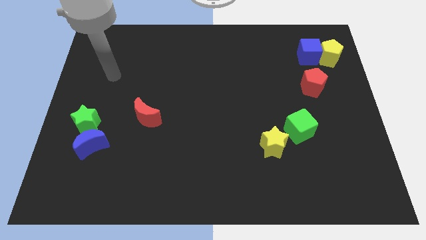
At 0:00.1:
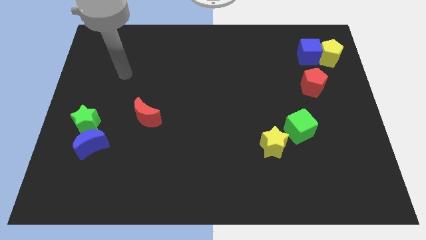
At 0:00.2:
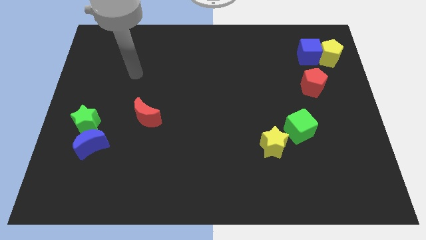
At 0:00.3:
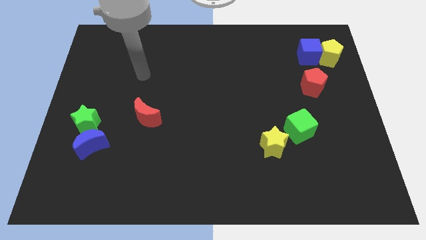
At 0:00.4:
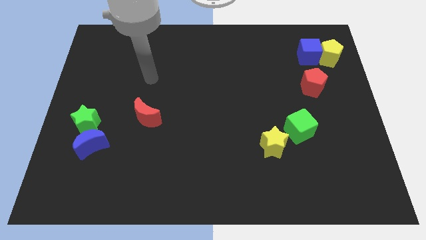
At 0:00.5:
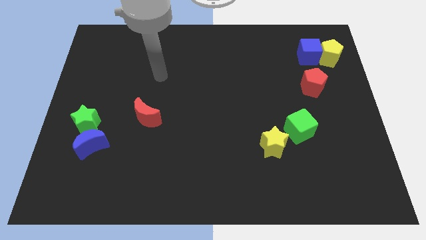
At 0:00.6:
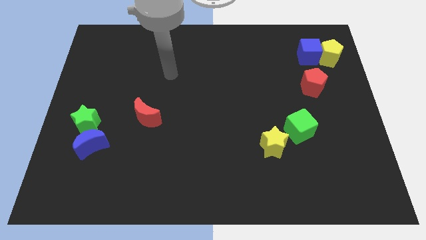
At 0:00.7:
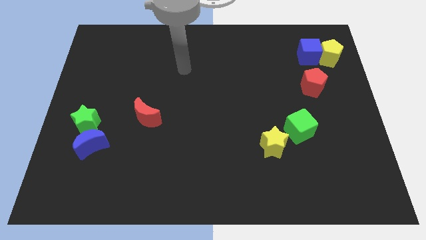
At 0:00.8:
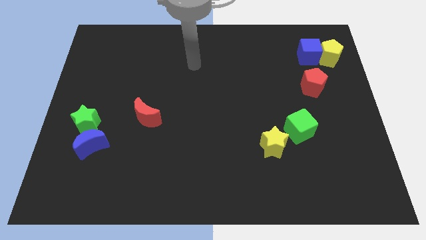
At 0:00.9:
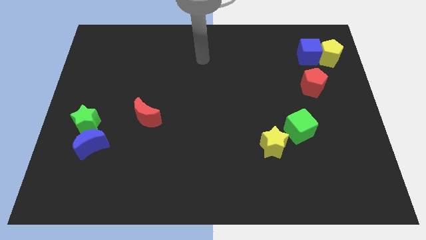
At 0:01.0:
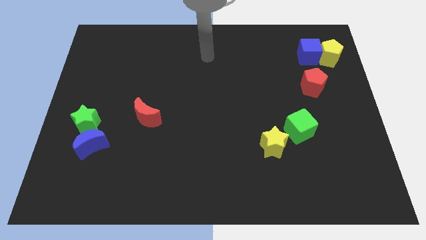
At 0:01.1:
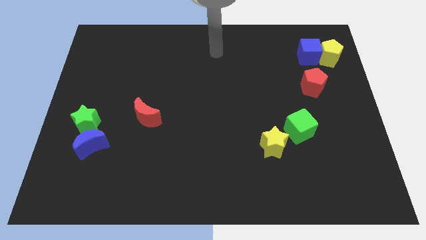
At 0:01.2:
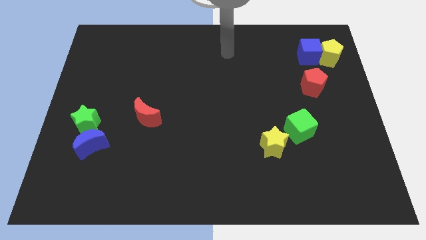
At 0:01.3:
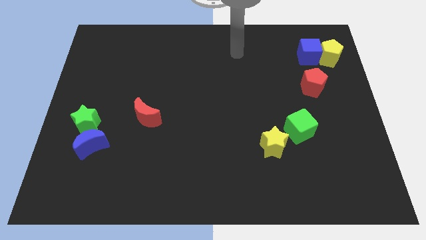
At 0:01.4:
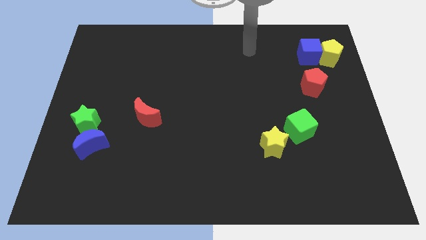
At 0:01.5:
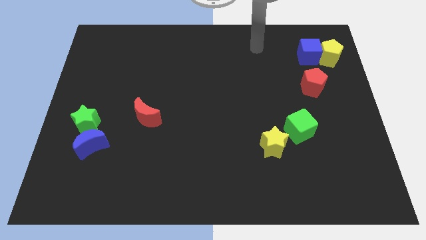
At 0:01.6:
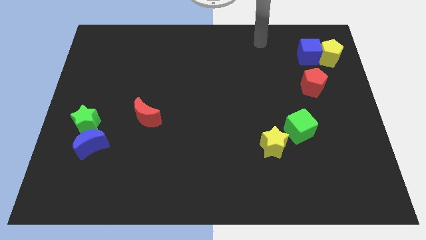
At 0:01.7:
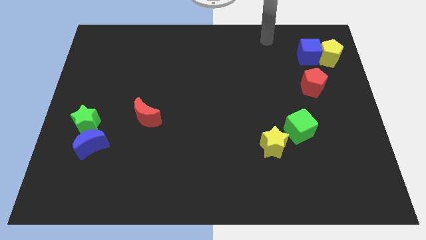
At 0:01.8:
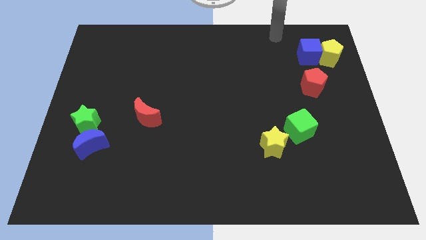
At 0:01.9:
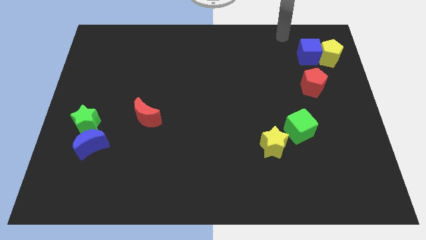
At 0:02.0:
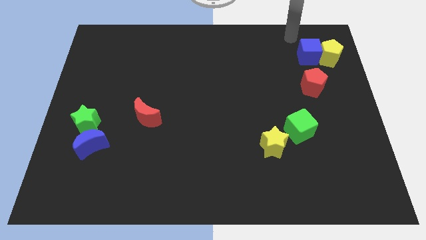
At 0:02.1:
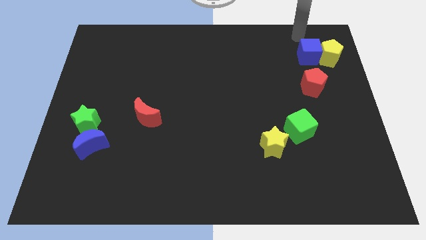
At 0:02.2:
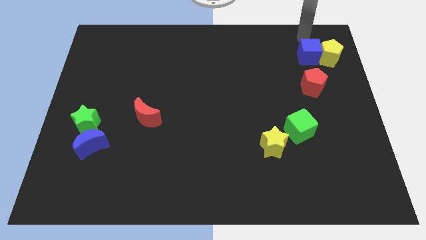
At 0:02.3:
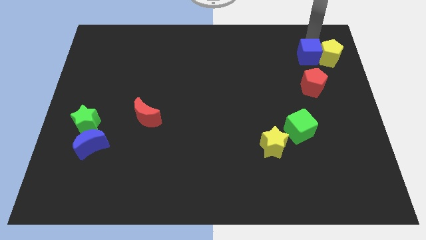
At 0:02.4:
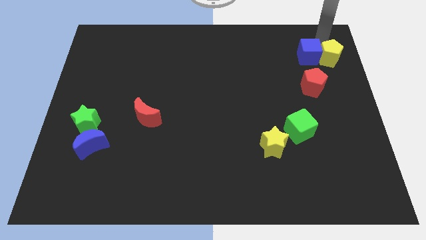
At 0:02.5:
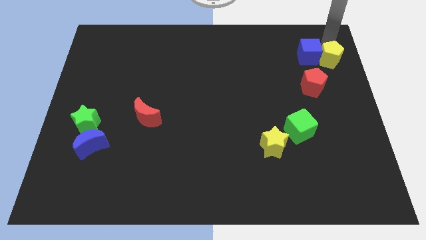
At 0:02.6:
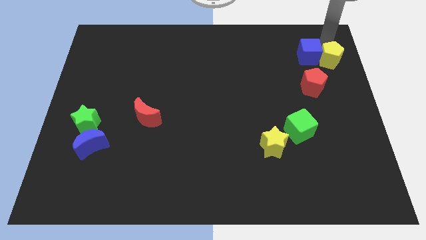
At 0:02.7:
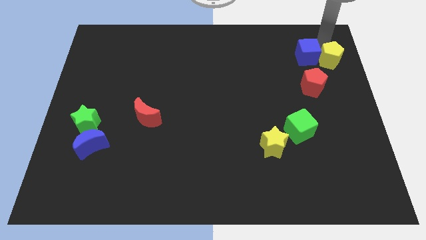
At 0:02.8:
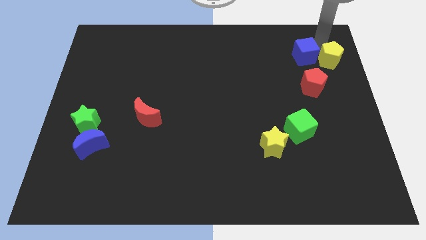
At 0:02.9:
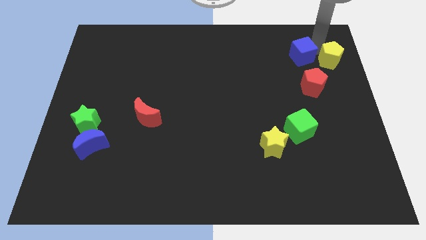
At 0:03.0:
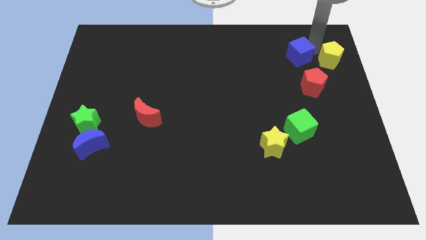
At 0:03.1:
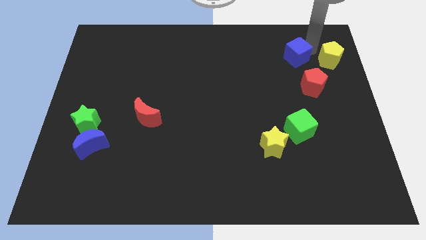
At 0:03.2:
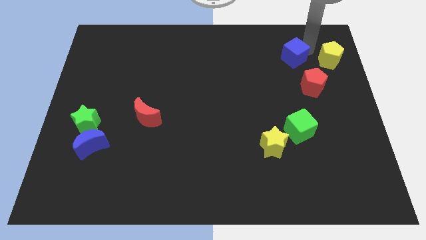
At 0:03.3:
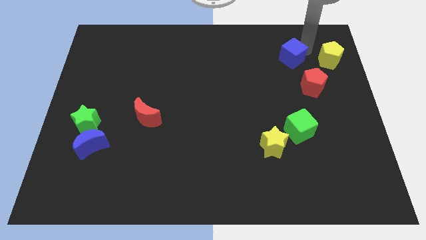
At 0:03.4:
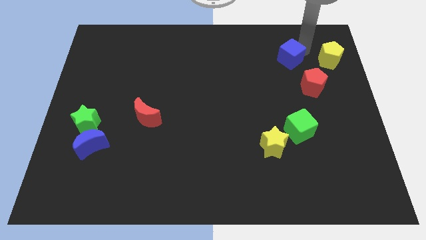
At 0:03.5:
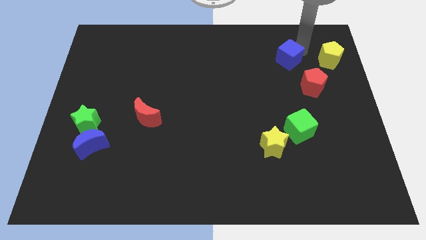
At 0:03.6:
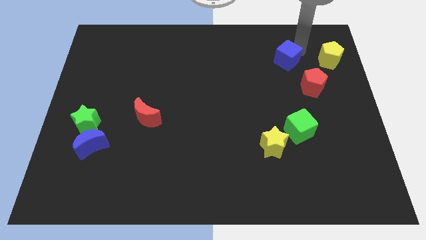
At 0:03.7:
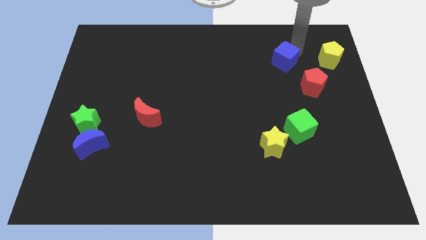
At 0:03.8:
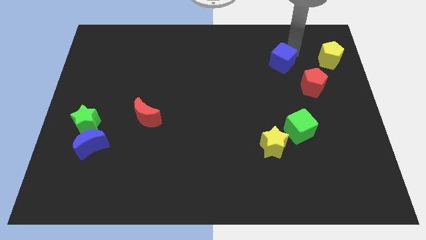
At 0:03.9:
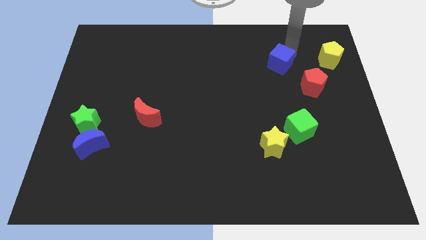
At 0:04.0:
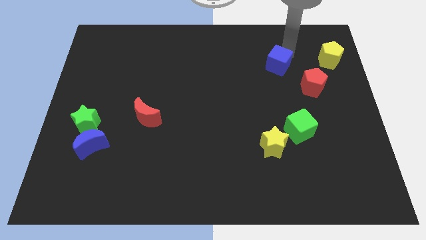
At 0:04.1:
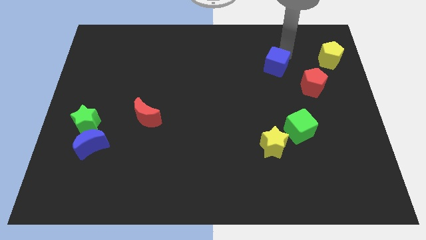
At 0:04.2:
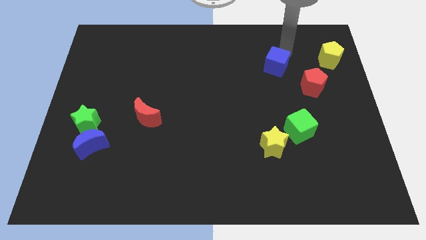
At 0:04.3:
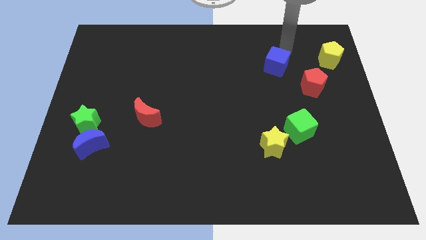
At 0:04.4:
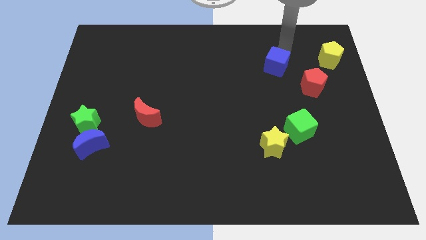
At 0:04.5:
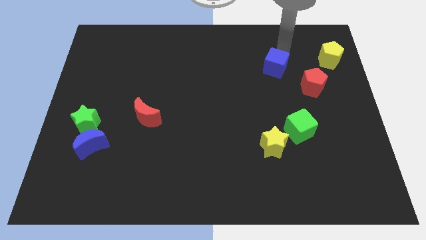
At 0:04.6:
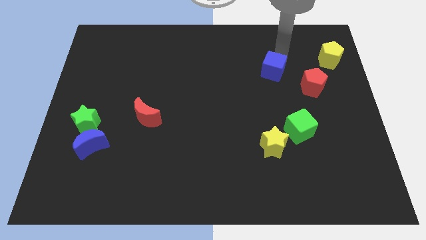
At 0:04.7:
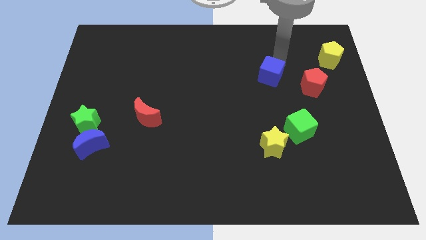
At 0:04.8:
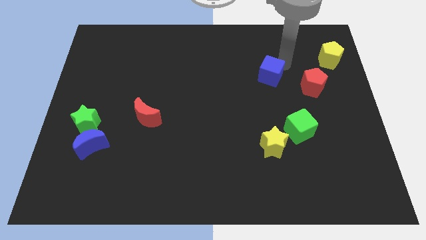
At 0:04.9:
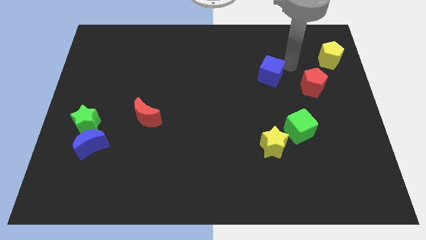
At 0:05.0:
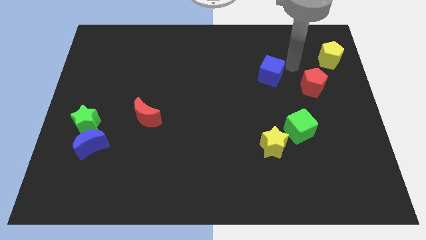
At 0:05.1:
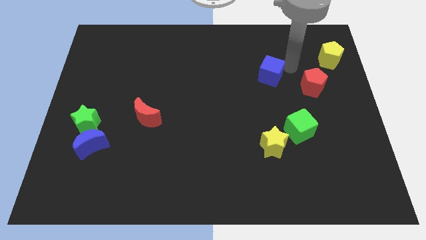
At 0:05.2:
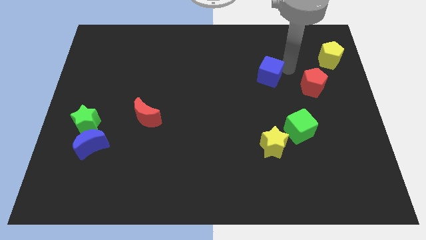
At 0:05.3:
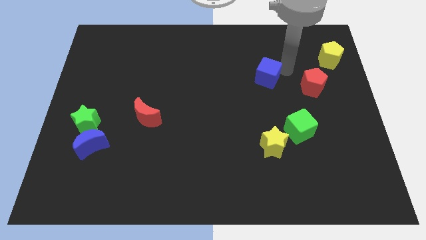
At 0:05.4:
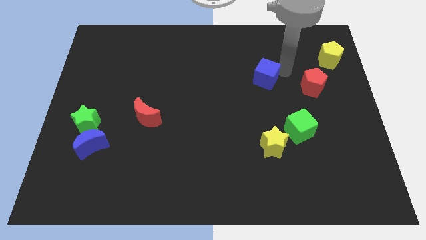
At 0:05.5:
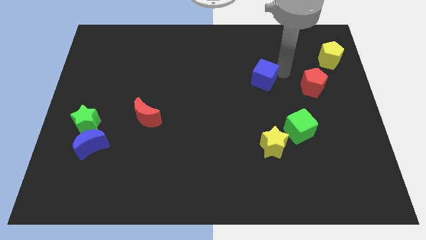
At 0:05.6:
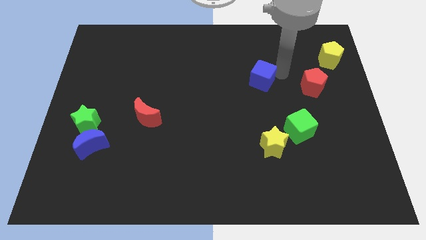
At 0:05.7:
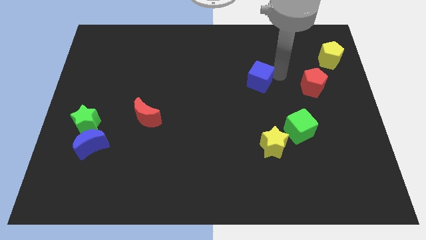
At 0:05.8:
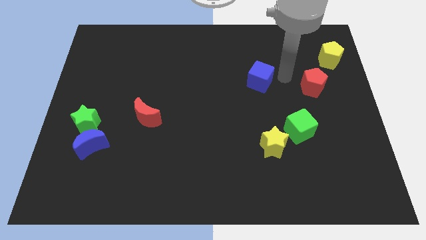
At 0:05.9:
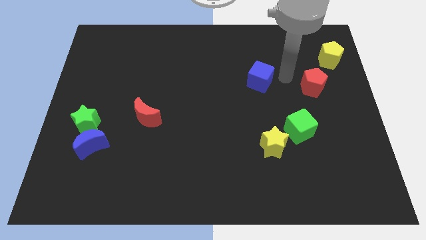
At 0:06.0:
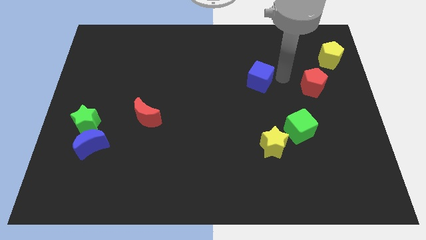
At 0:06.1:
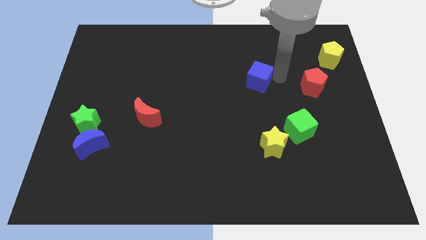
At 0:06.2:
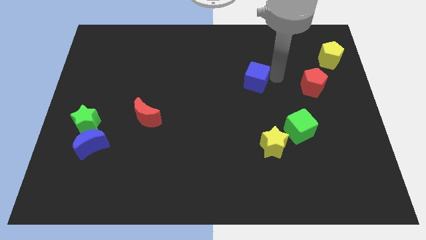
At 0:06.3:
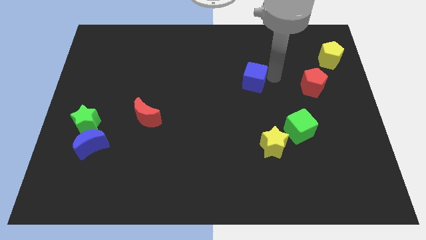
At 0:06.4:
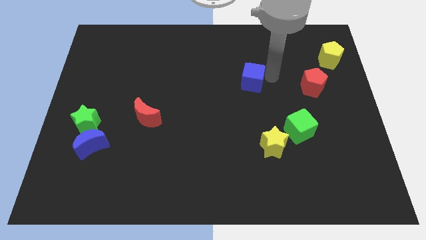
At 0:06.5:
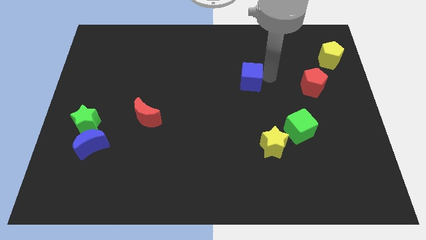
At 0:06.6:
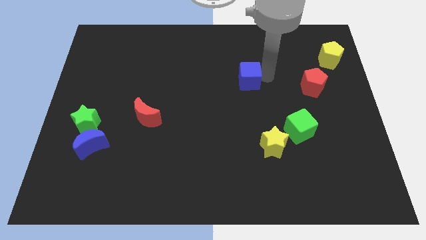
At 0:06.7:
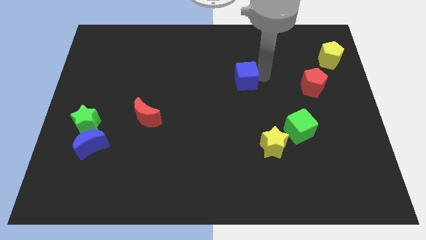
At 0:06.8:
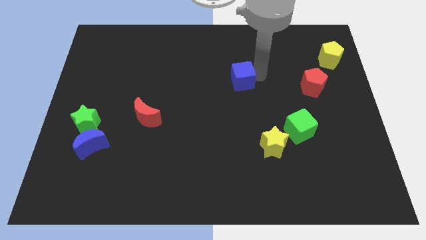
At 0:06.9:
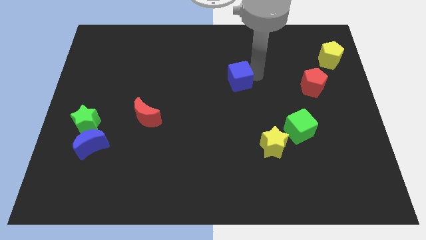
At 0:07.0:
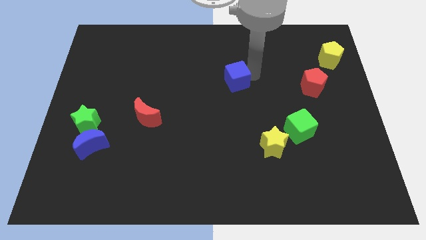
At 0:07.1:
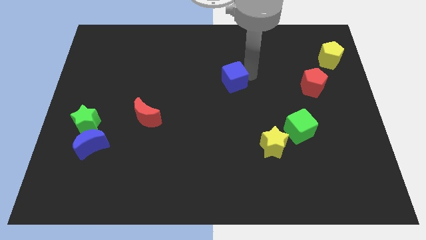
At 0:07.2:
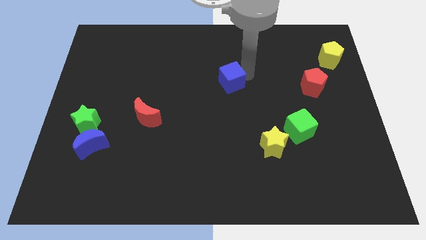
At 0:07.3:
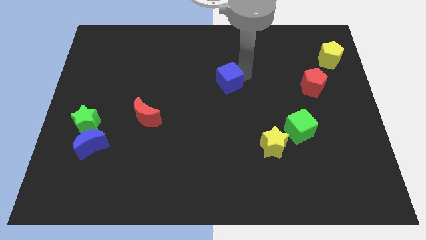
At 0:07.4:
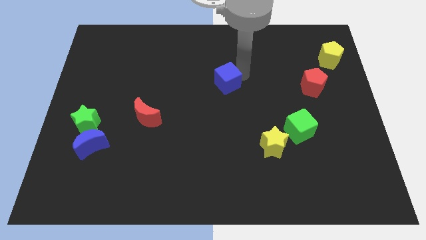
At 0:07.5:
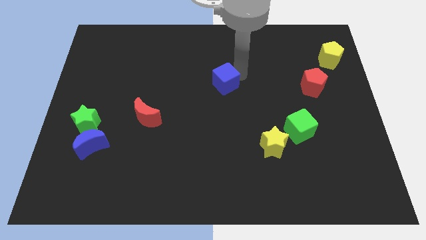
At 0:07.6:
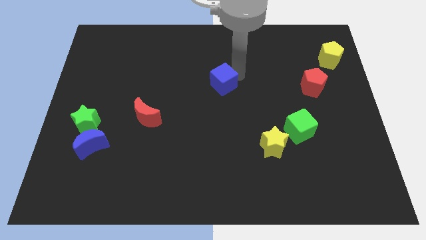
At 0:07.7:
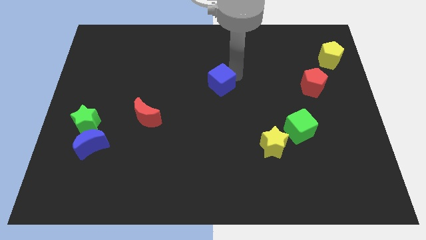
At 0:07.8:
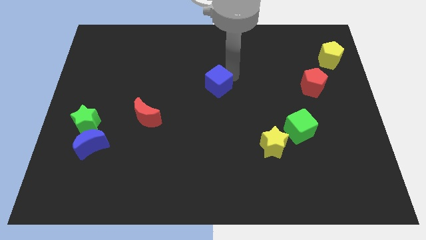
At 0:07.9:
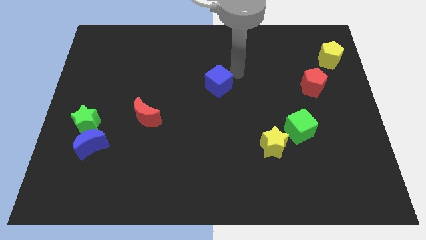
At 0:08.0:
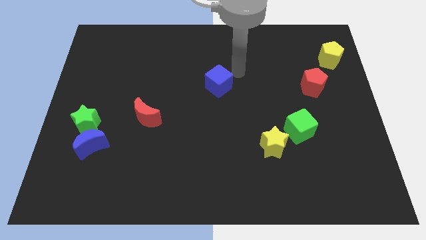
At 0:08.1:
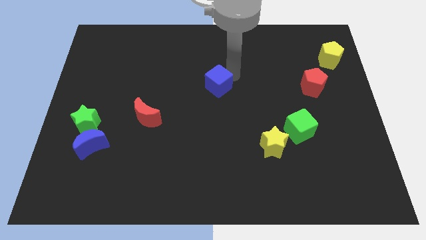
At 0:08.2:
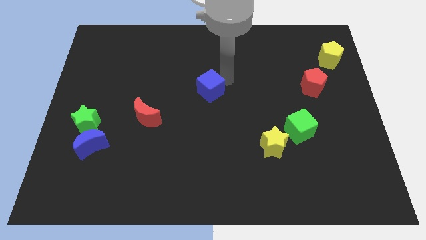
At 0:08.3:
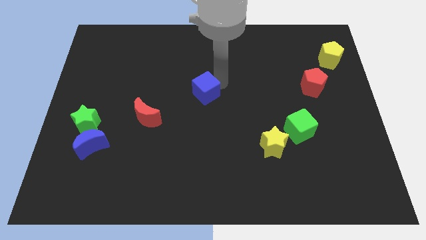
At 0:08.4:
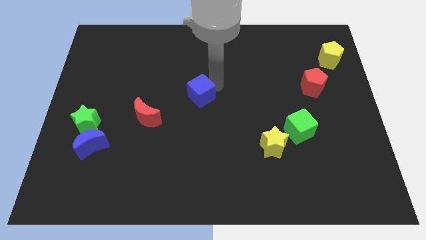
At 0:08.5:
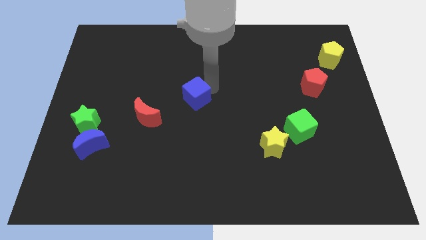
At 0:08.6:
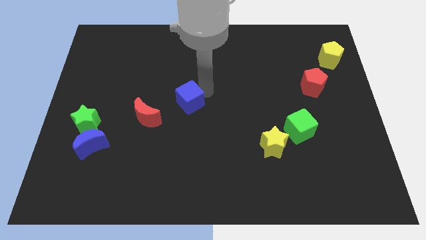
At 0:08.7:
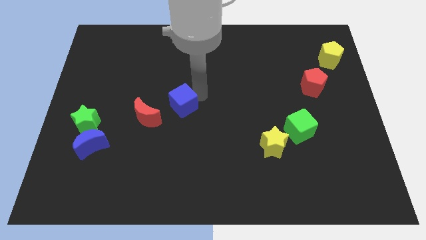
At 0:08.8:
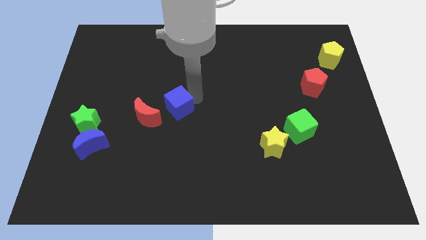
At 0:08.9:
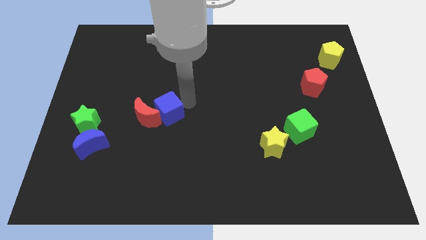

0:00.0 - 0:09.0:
push the blue cube to the red moon
